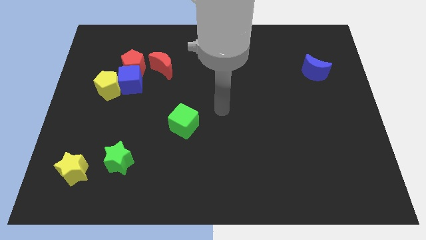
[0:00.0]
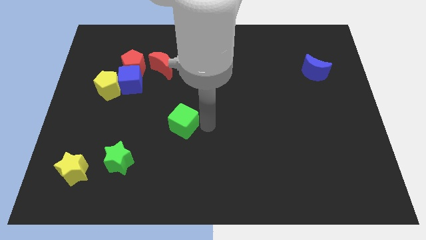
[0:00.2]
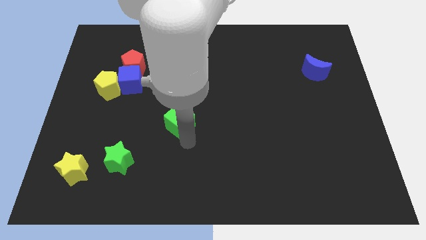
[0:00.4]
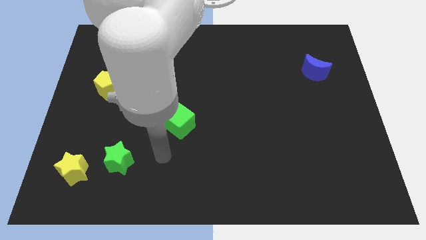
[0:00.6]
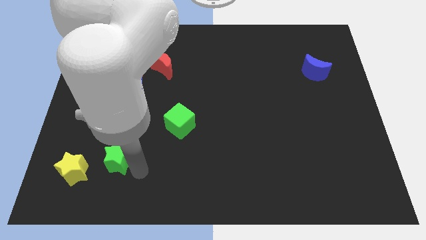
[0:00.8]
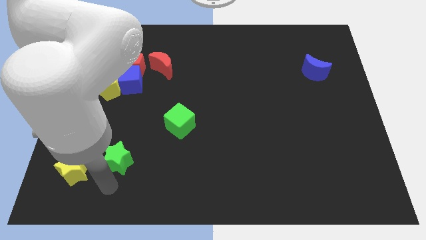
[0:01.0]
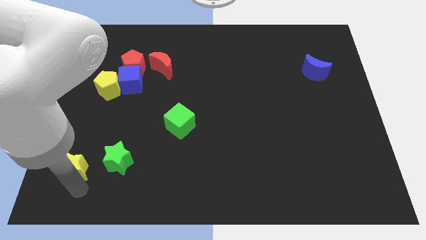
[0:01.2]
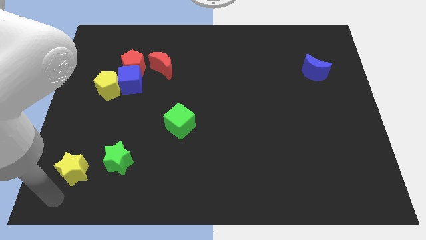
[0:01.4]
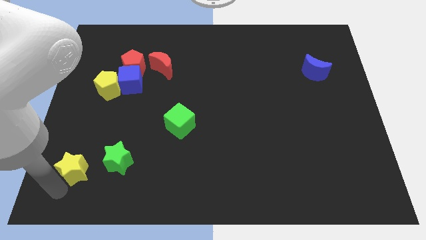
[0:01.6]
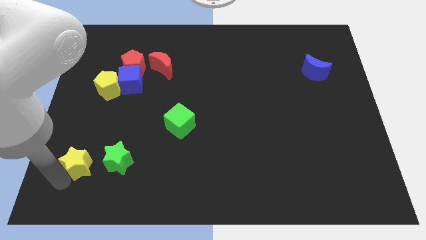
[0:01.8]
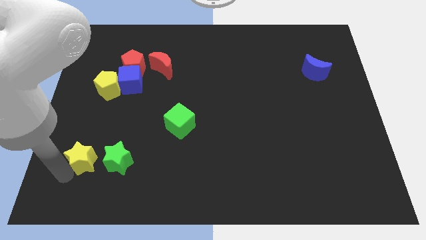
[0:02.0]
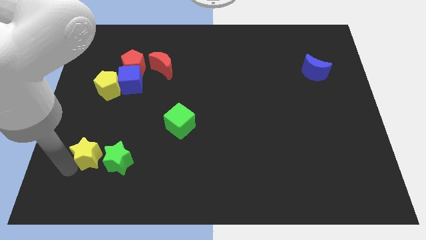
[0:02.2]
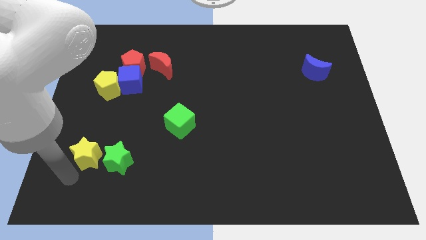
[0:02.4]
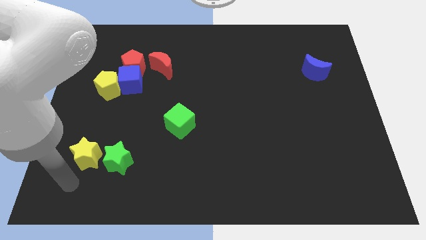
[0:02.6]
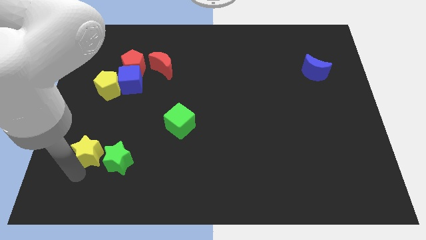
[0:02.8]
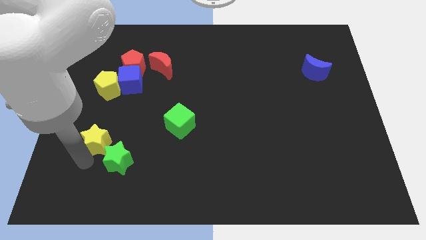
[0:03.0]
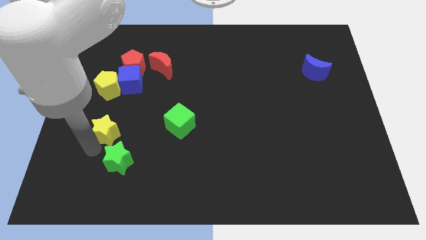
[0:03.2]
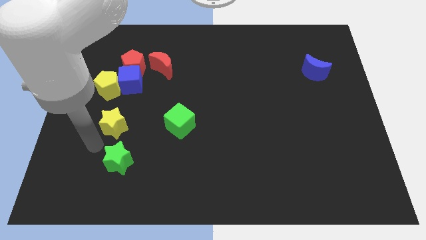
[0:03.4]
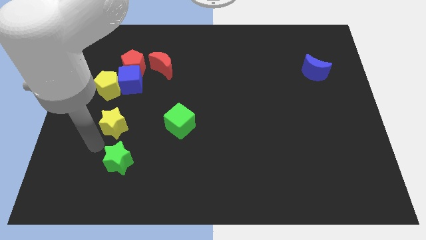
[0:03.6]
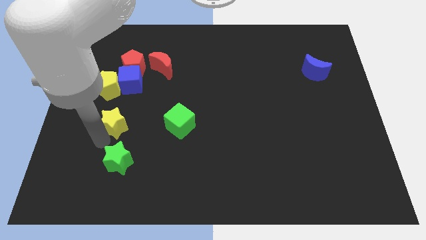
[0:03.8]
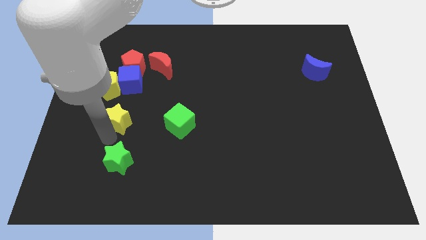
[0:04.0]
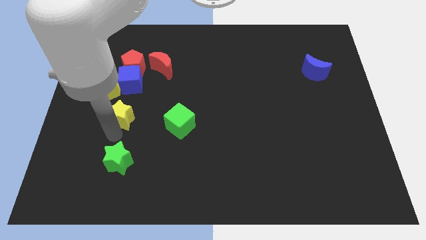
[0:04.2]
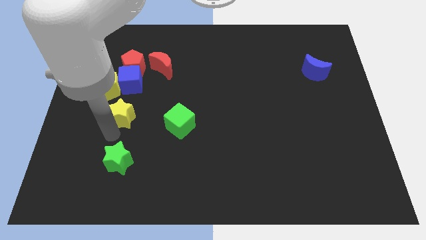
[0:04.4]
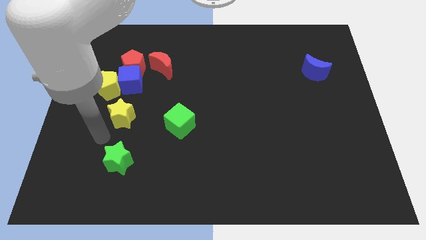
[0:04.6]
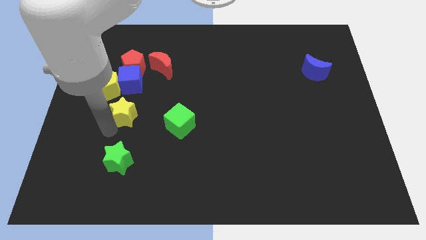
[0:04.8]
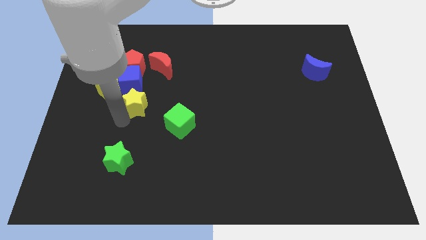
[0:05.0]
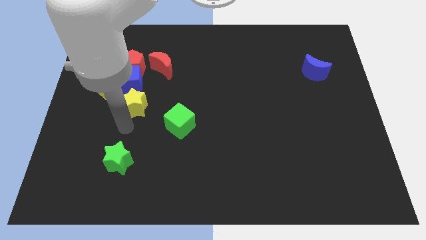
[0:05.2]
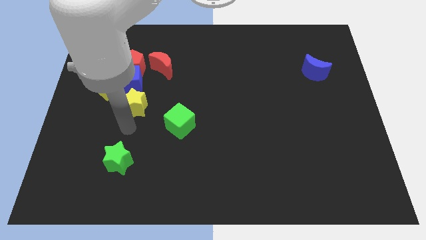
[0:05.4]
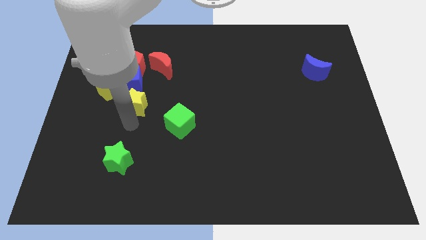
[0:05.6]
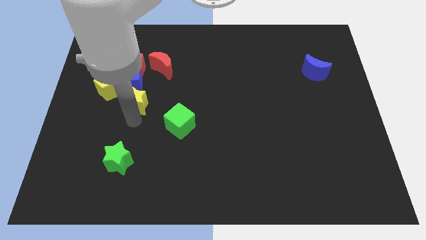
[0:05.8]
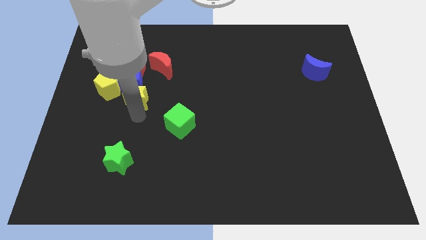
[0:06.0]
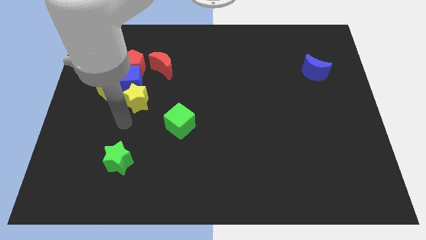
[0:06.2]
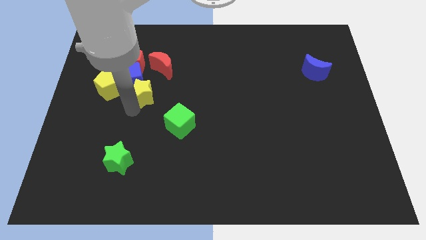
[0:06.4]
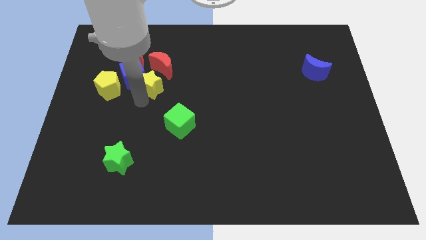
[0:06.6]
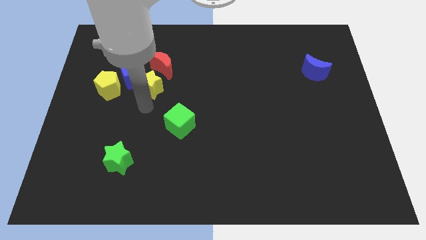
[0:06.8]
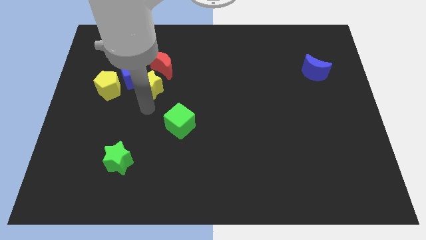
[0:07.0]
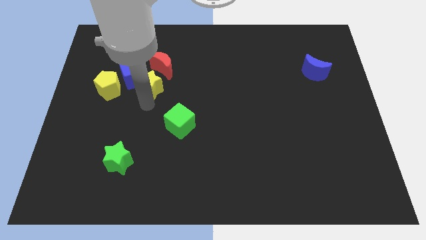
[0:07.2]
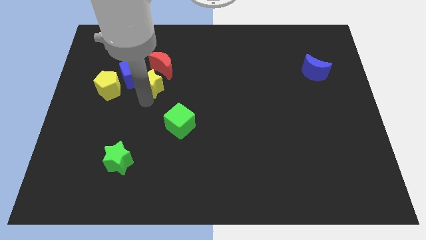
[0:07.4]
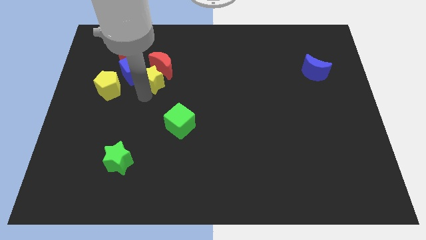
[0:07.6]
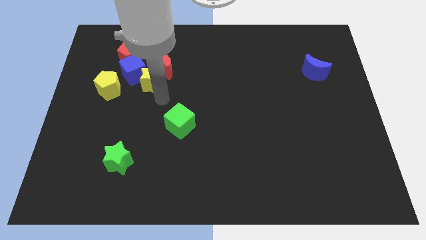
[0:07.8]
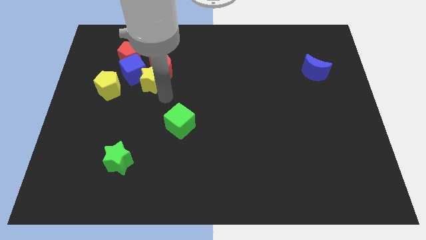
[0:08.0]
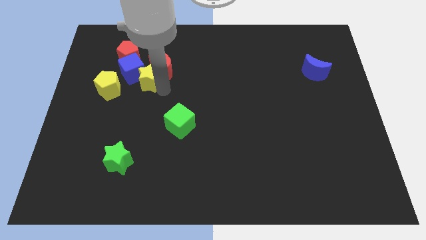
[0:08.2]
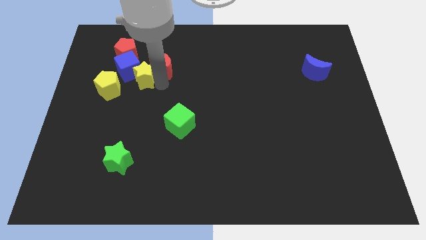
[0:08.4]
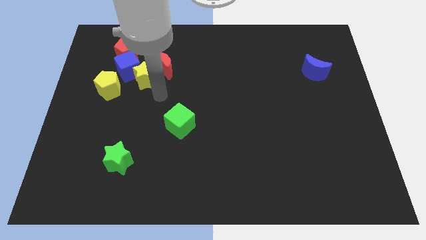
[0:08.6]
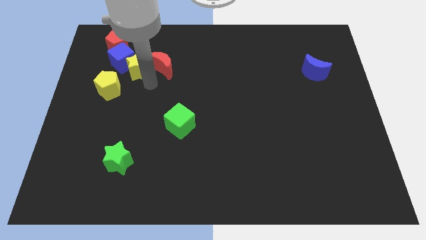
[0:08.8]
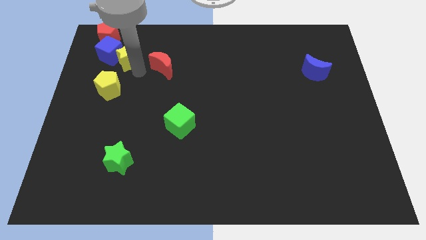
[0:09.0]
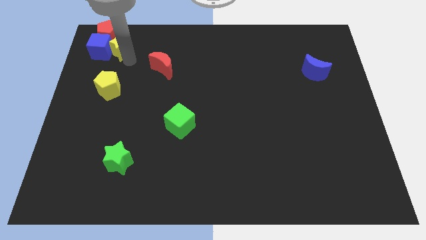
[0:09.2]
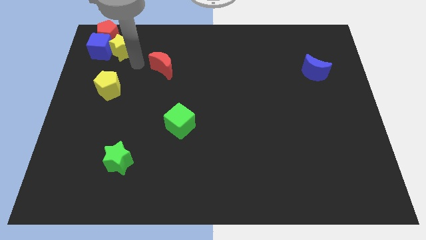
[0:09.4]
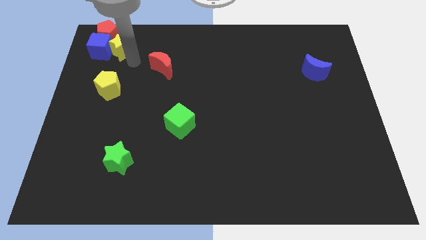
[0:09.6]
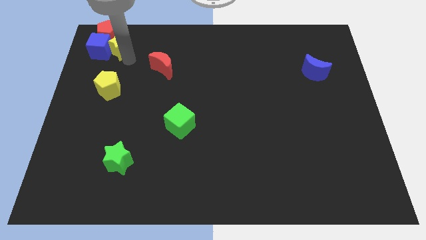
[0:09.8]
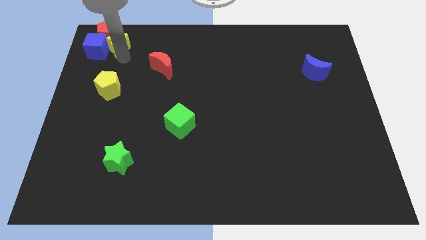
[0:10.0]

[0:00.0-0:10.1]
move the yellow star towards the red pentagon

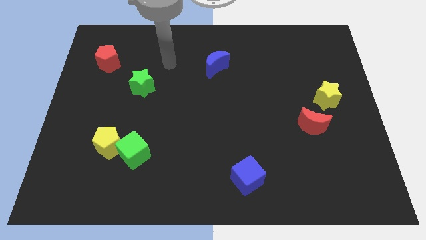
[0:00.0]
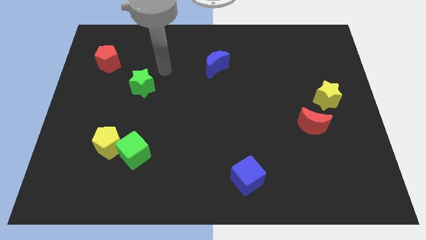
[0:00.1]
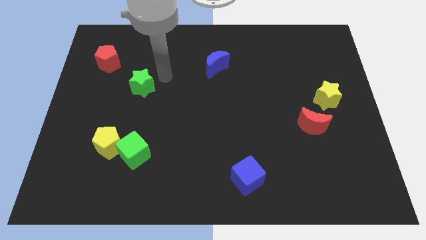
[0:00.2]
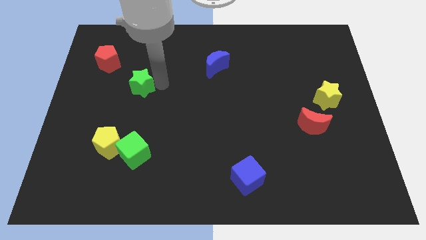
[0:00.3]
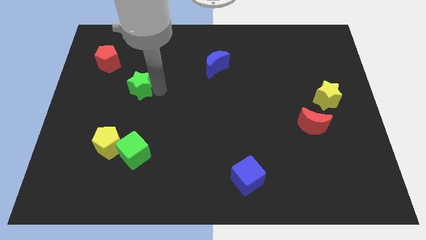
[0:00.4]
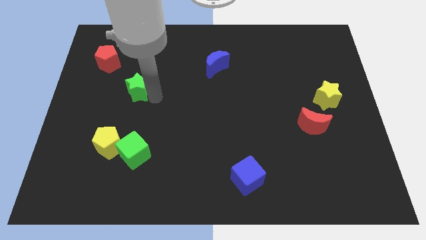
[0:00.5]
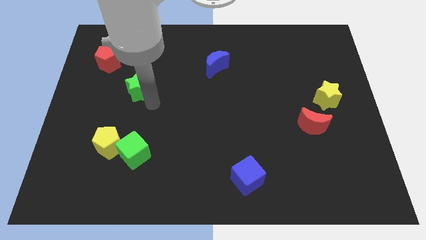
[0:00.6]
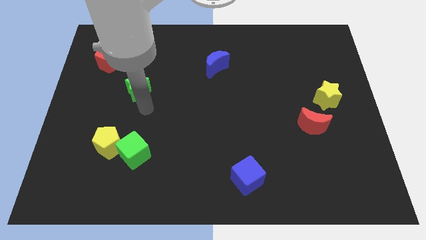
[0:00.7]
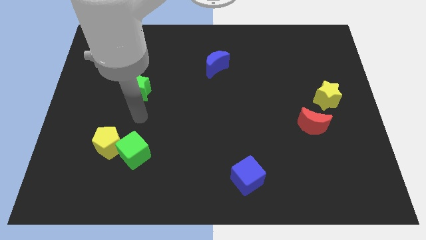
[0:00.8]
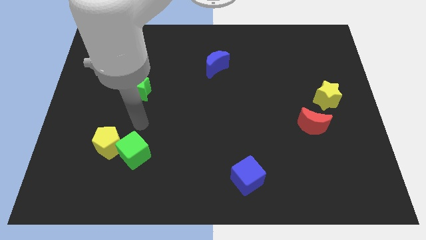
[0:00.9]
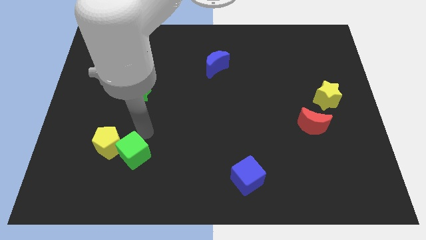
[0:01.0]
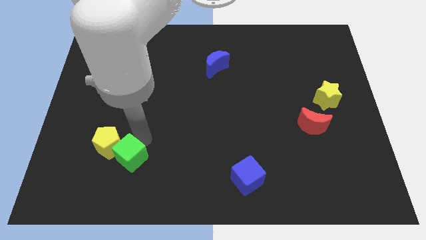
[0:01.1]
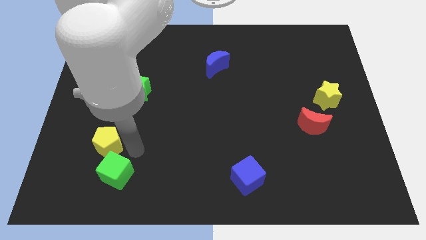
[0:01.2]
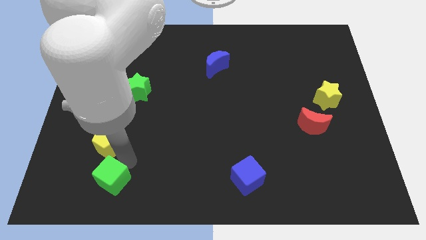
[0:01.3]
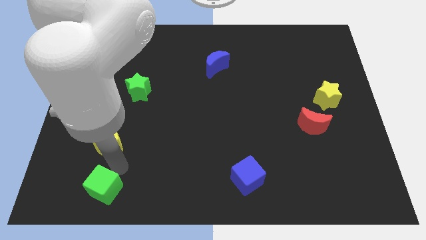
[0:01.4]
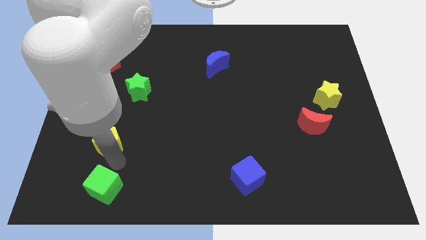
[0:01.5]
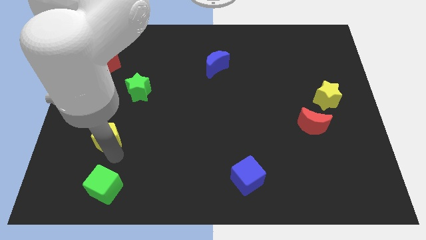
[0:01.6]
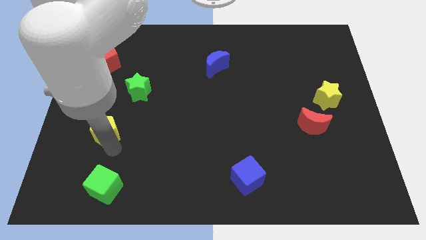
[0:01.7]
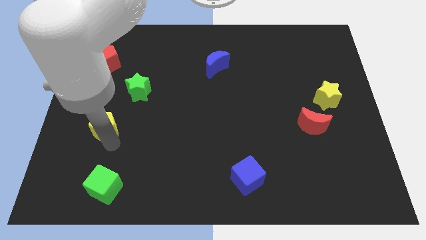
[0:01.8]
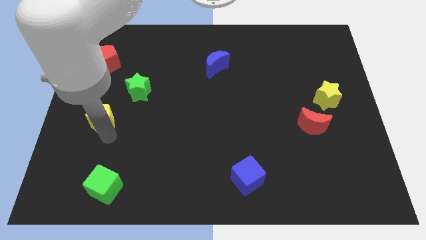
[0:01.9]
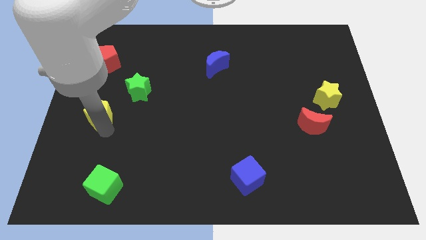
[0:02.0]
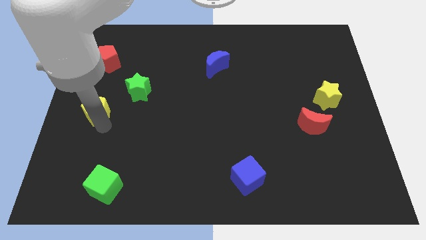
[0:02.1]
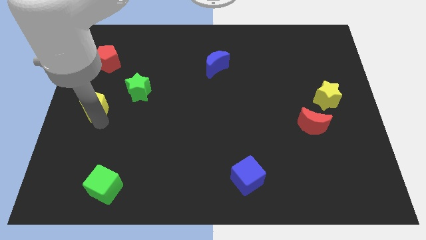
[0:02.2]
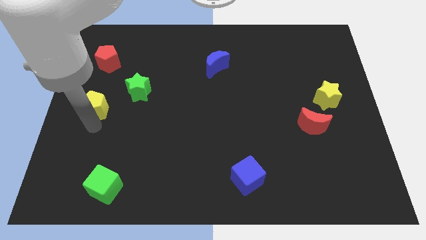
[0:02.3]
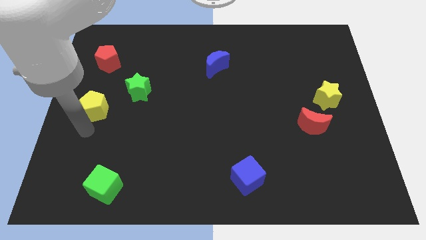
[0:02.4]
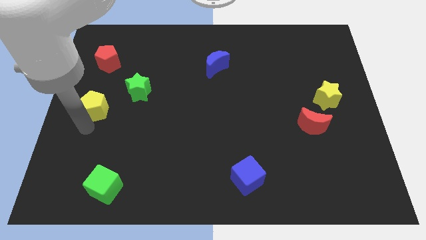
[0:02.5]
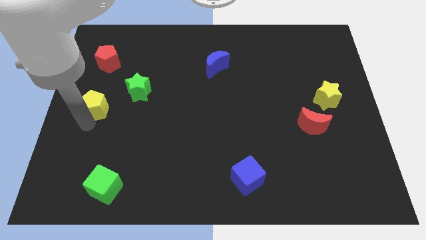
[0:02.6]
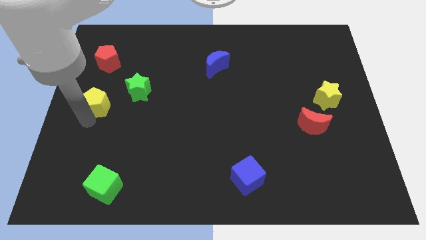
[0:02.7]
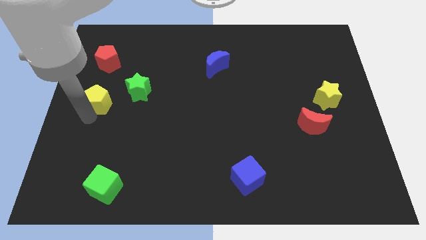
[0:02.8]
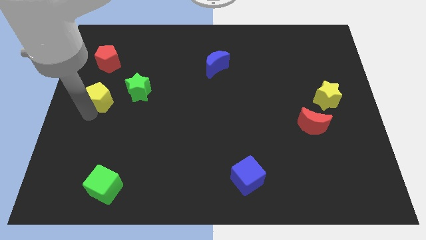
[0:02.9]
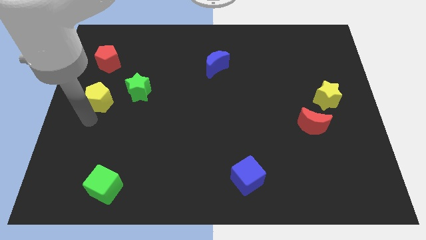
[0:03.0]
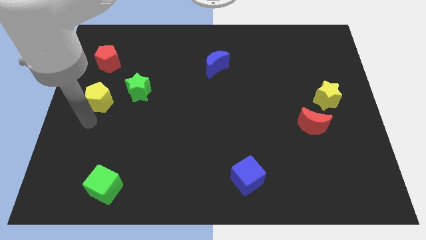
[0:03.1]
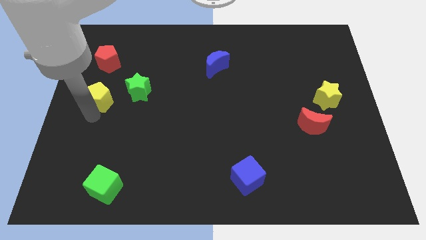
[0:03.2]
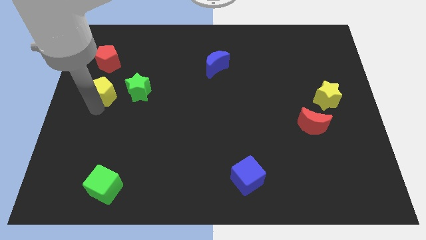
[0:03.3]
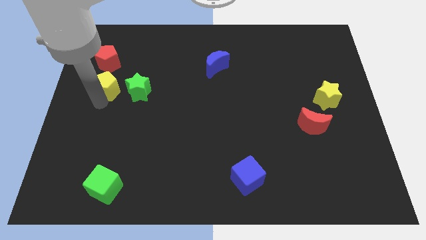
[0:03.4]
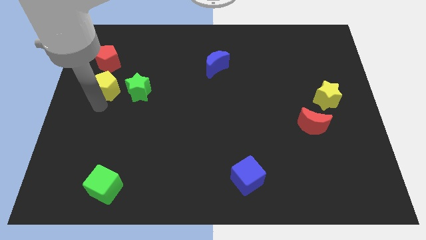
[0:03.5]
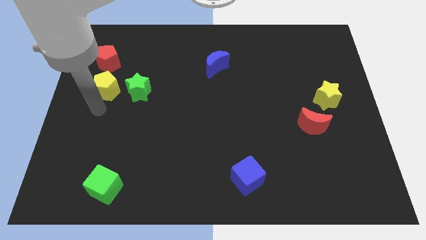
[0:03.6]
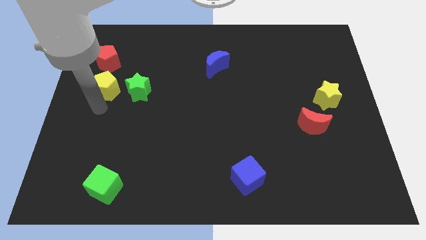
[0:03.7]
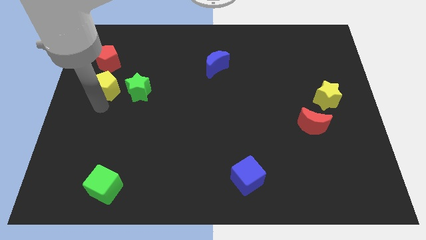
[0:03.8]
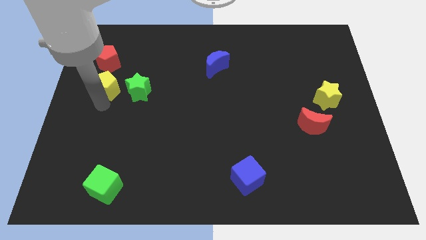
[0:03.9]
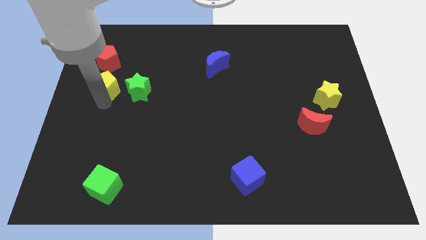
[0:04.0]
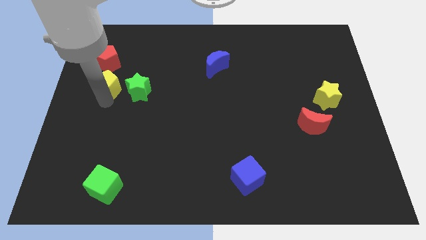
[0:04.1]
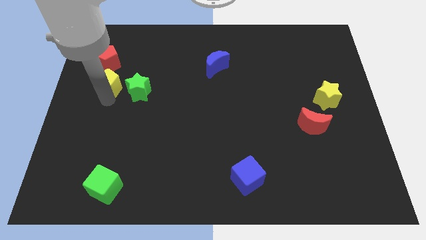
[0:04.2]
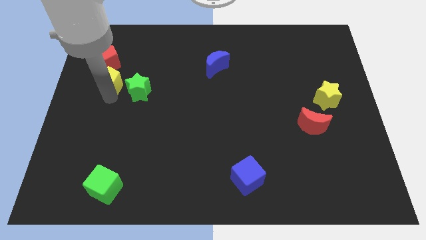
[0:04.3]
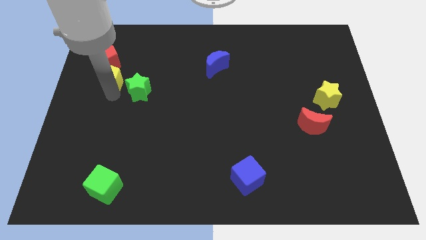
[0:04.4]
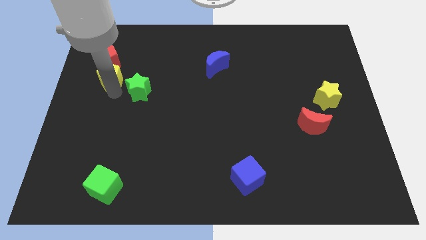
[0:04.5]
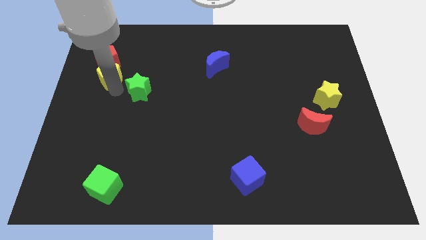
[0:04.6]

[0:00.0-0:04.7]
push the yellow pentagon to the red pentagon
